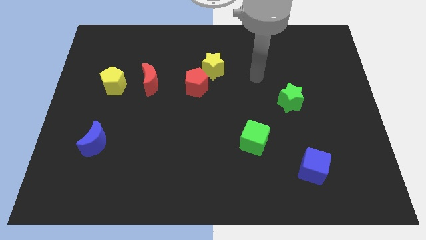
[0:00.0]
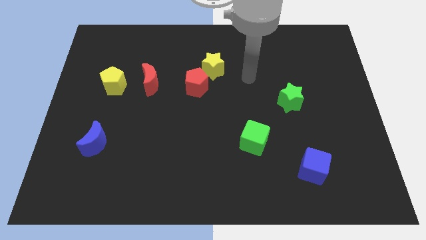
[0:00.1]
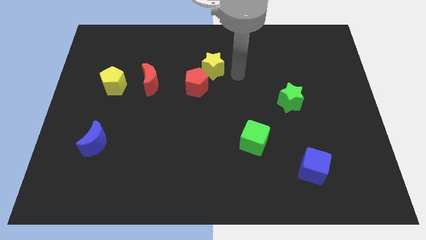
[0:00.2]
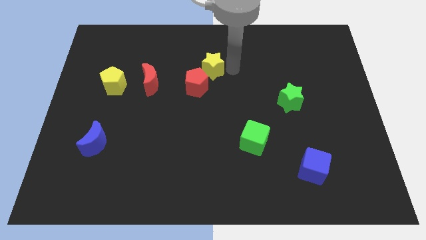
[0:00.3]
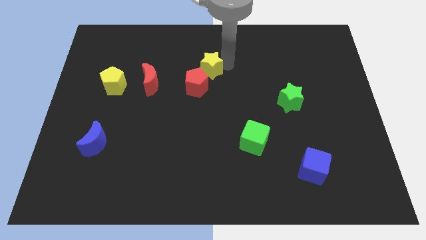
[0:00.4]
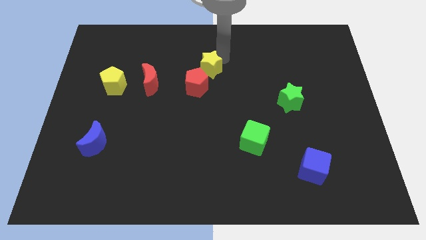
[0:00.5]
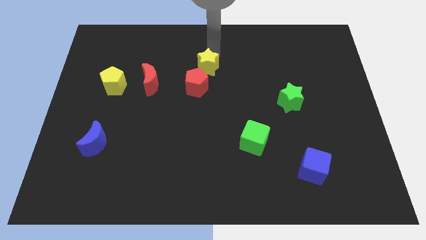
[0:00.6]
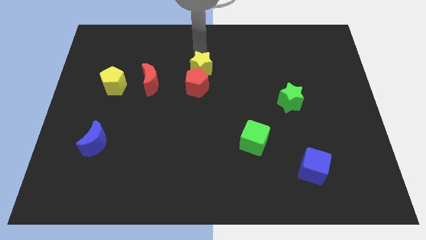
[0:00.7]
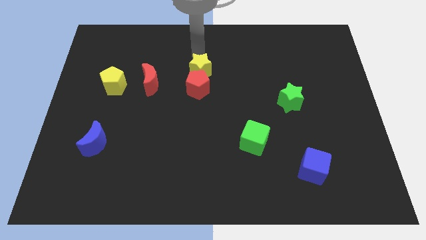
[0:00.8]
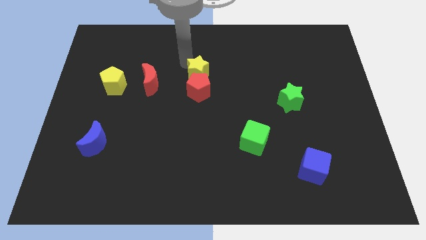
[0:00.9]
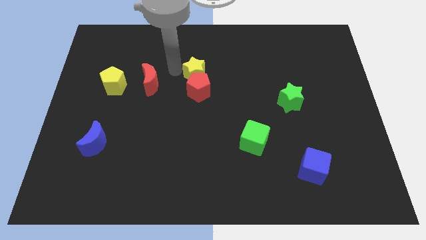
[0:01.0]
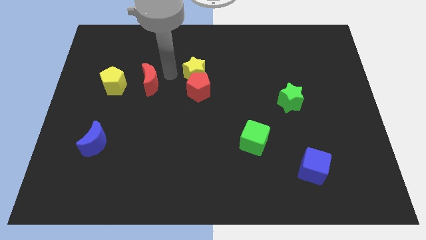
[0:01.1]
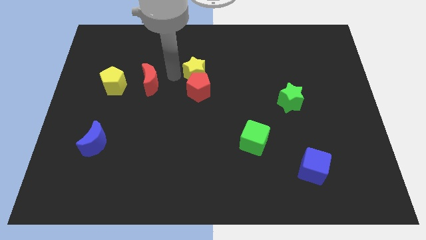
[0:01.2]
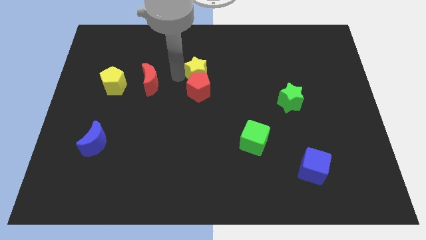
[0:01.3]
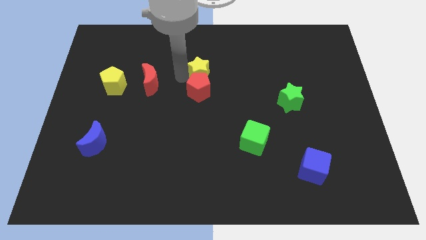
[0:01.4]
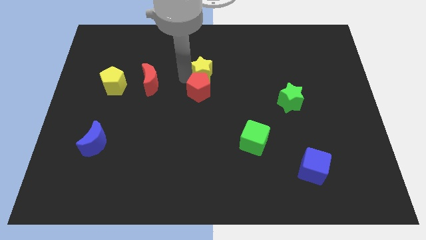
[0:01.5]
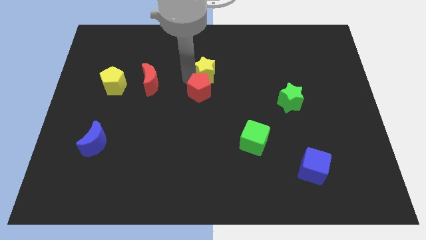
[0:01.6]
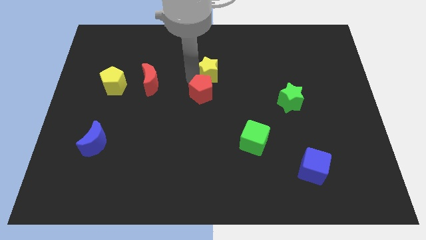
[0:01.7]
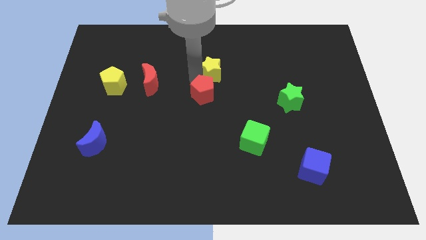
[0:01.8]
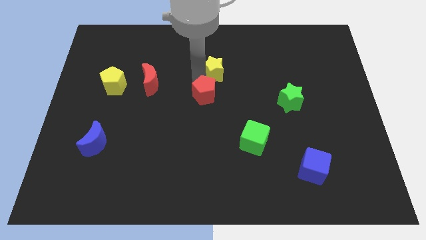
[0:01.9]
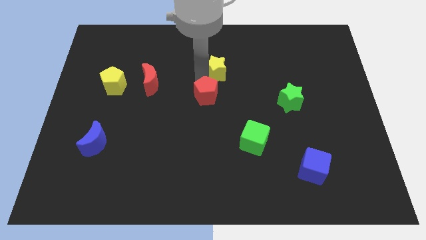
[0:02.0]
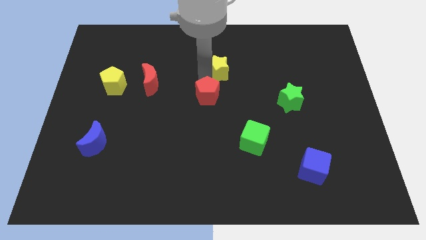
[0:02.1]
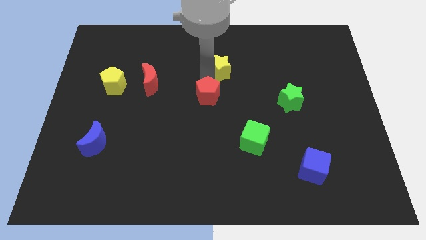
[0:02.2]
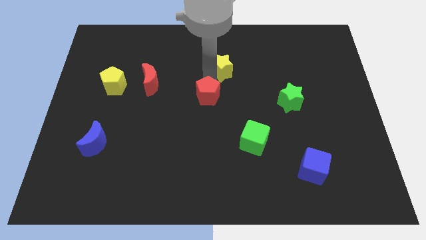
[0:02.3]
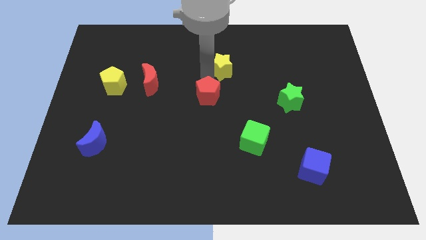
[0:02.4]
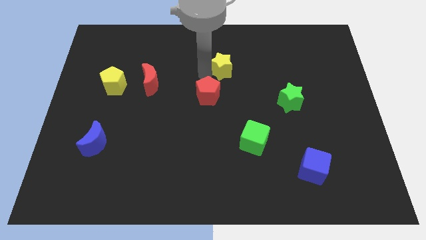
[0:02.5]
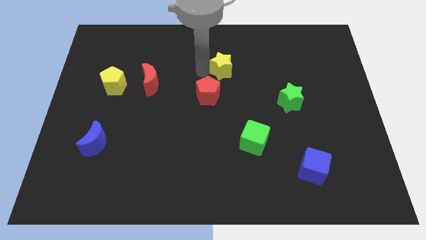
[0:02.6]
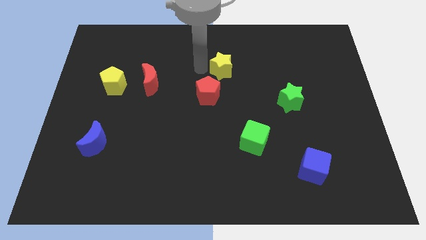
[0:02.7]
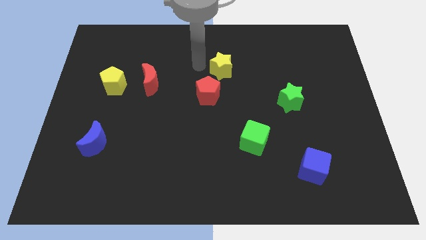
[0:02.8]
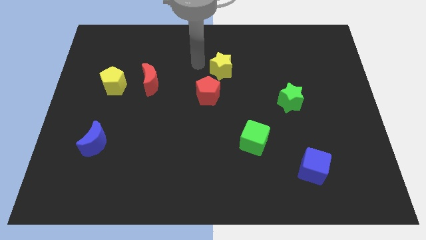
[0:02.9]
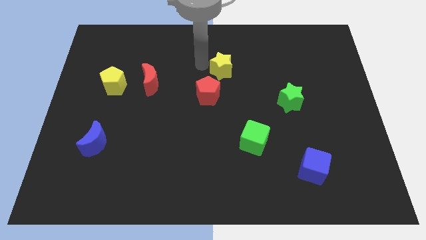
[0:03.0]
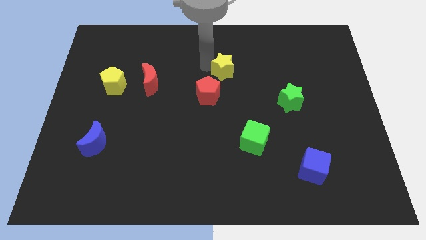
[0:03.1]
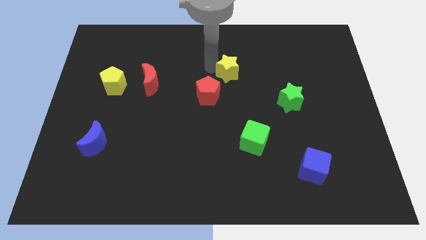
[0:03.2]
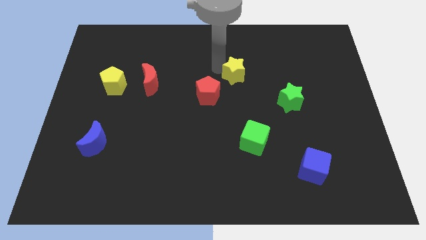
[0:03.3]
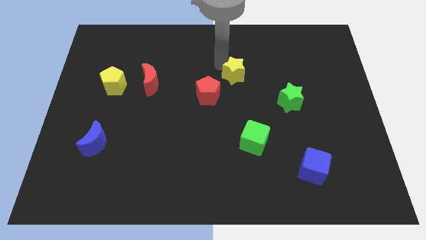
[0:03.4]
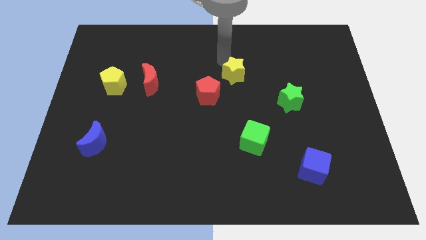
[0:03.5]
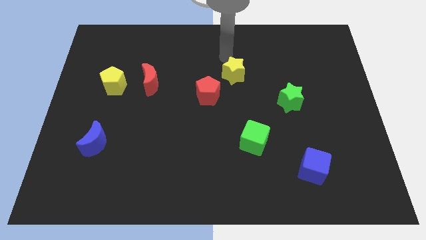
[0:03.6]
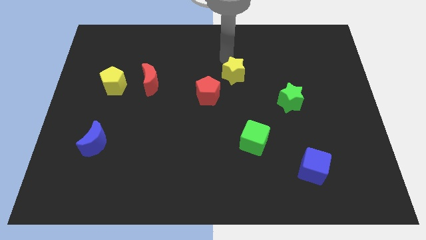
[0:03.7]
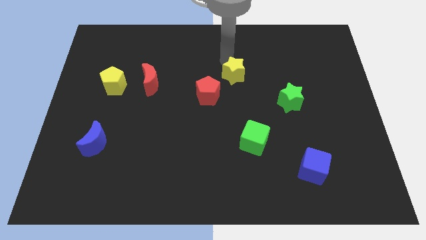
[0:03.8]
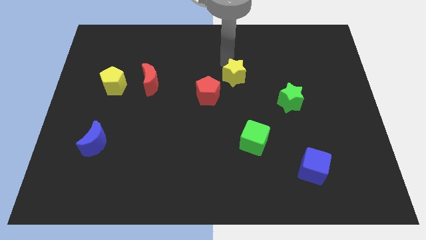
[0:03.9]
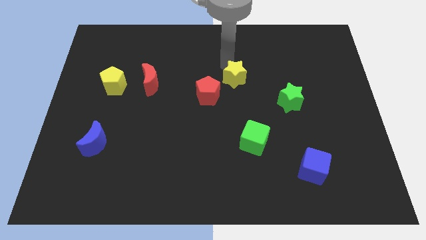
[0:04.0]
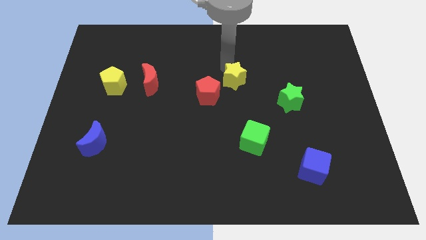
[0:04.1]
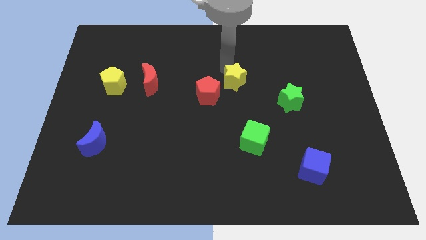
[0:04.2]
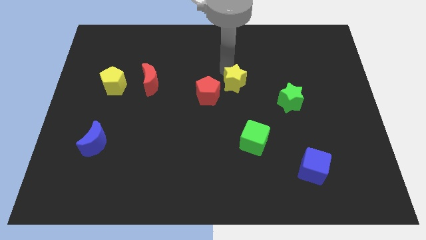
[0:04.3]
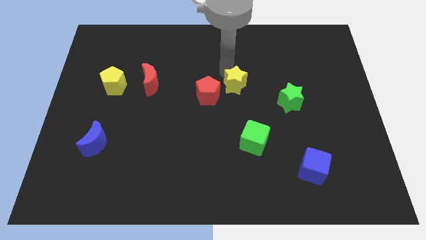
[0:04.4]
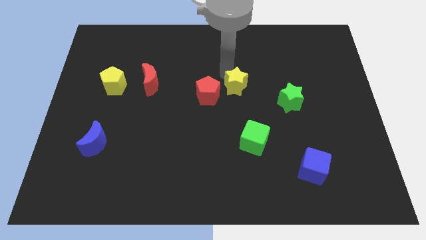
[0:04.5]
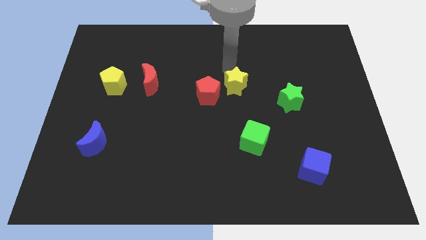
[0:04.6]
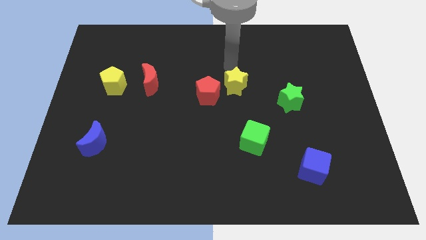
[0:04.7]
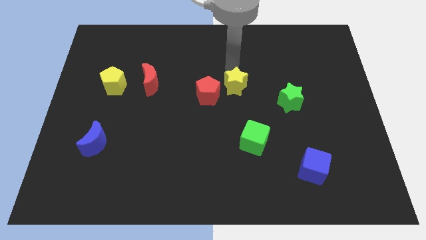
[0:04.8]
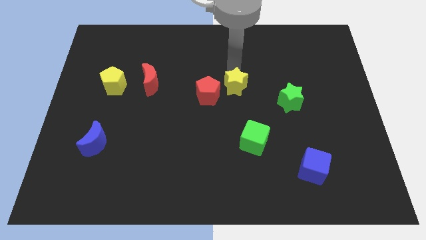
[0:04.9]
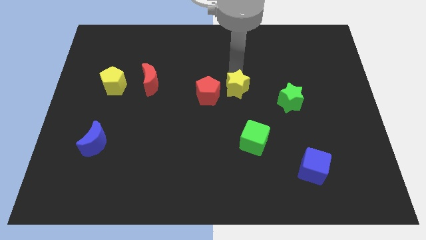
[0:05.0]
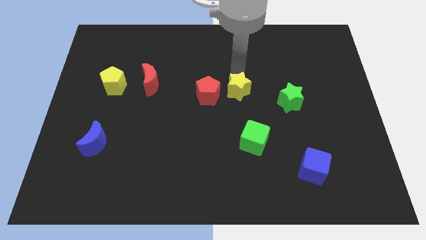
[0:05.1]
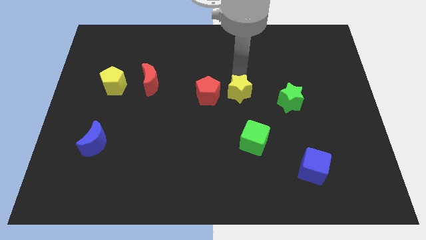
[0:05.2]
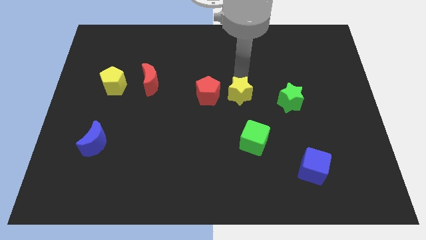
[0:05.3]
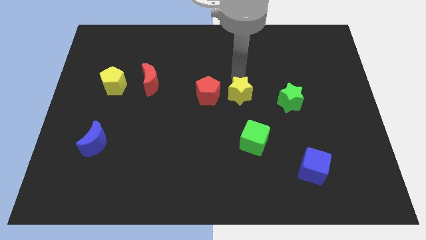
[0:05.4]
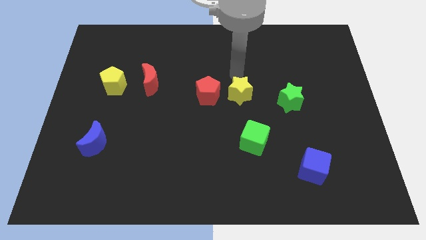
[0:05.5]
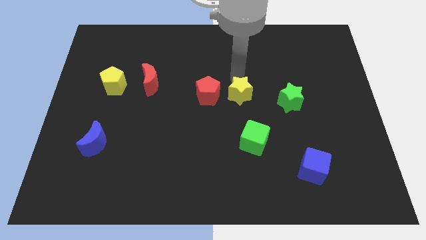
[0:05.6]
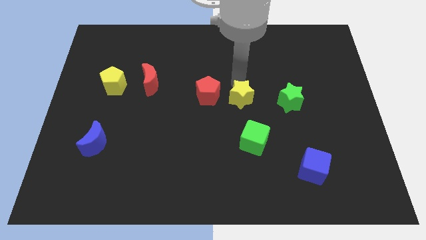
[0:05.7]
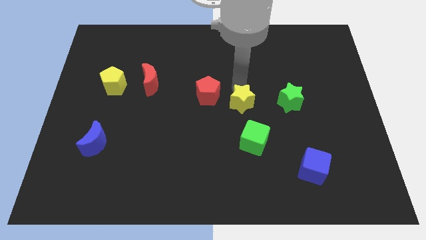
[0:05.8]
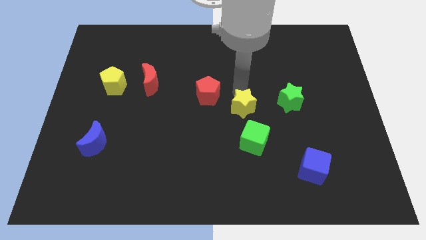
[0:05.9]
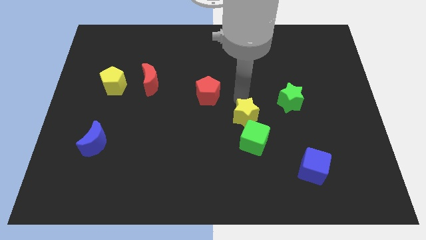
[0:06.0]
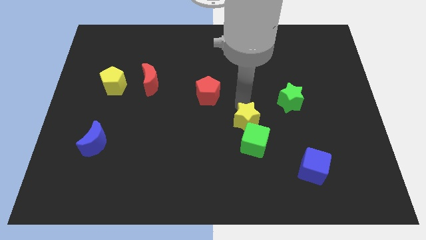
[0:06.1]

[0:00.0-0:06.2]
push the yellow star next to the green cube

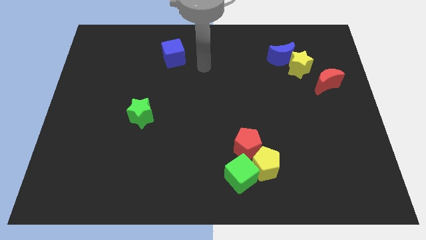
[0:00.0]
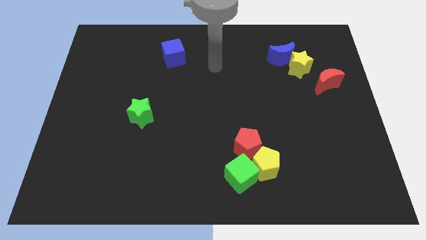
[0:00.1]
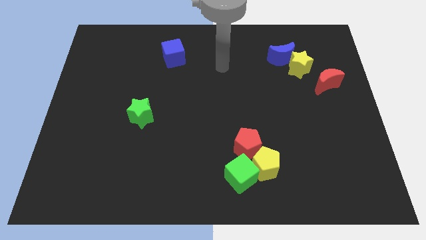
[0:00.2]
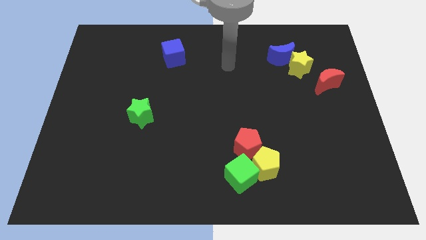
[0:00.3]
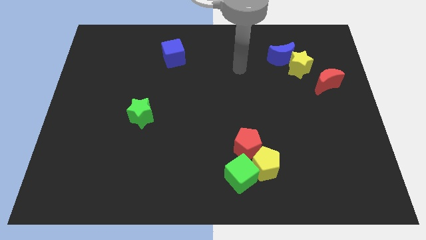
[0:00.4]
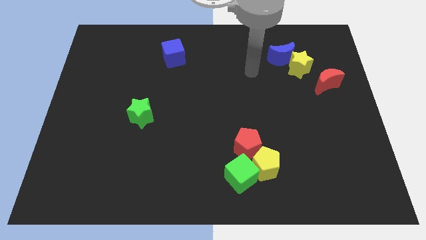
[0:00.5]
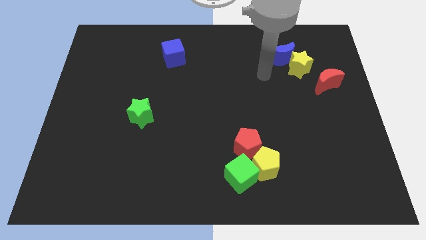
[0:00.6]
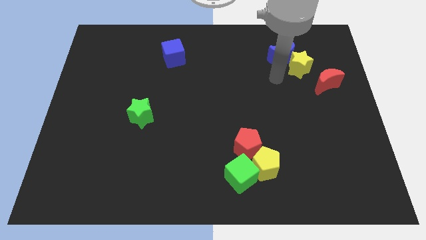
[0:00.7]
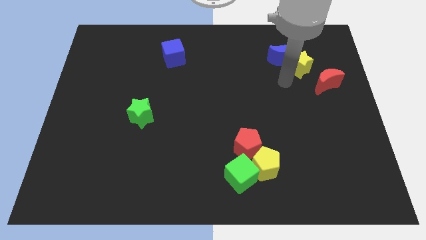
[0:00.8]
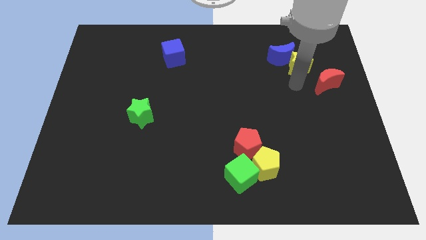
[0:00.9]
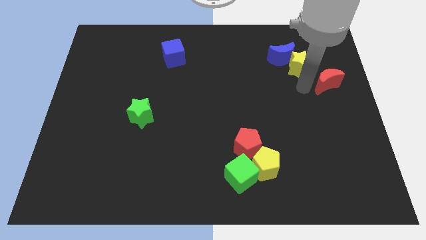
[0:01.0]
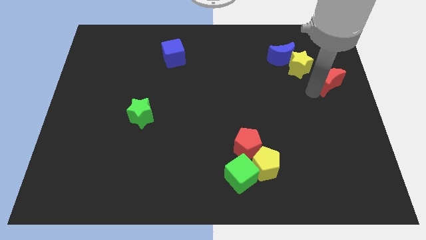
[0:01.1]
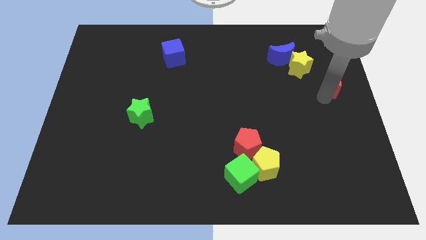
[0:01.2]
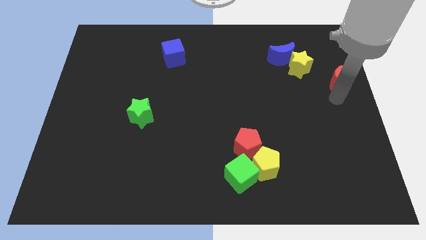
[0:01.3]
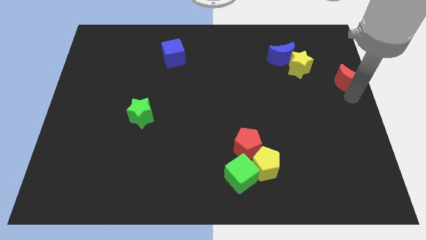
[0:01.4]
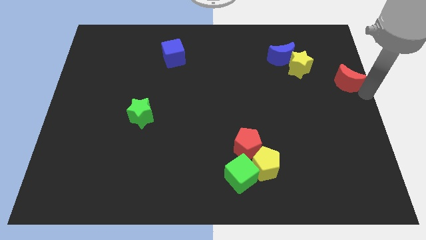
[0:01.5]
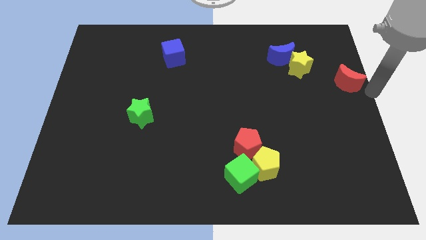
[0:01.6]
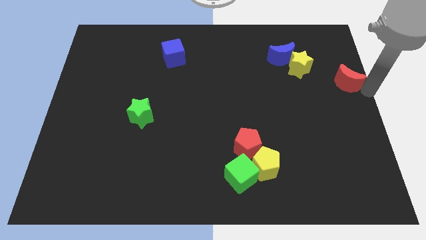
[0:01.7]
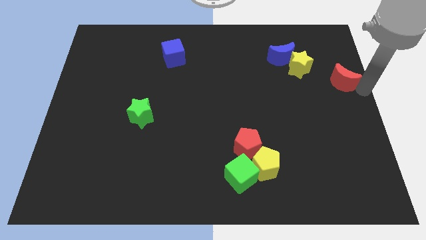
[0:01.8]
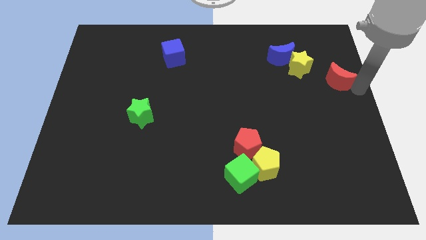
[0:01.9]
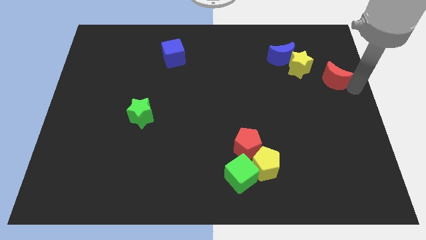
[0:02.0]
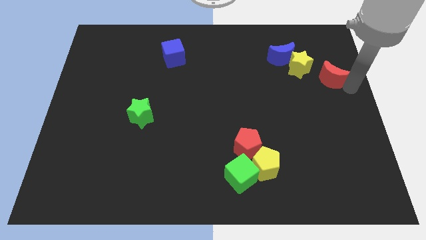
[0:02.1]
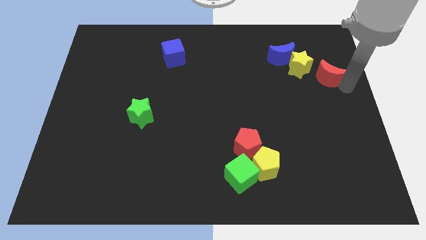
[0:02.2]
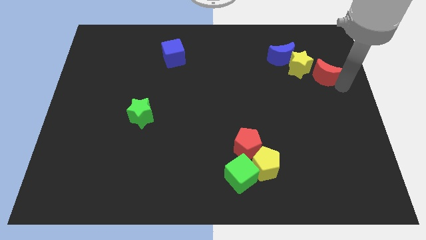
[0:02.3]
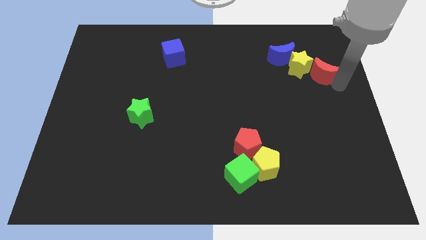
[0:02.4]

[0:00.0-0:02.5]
move the red moon close to the yellow star
